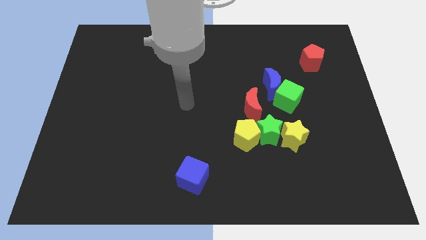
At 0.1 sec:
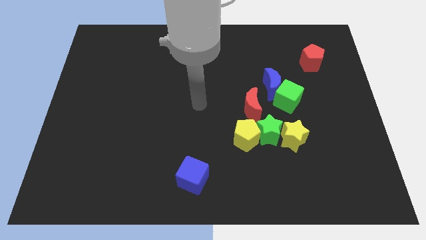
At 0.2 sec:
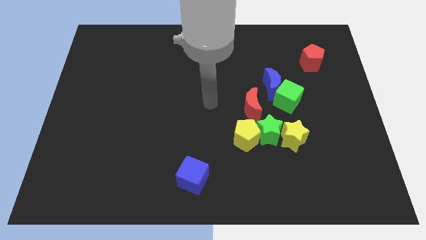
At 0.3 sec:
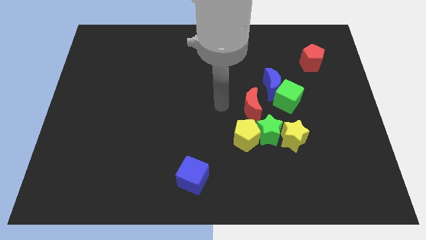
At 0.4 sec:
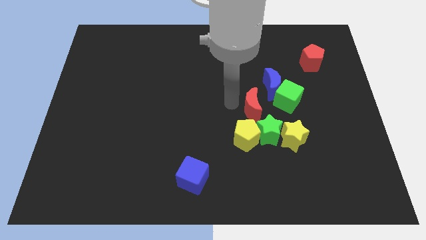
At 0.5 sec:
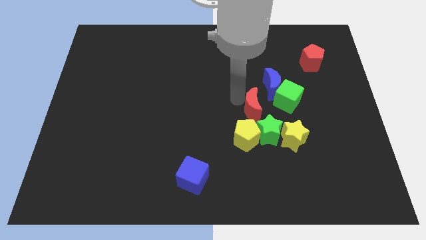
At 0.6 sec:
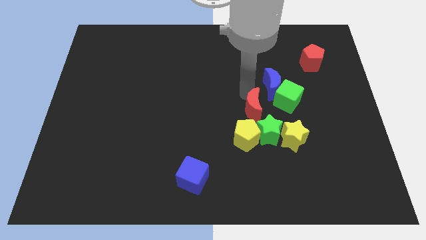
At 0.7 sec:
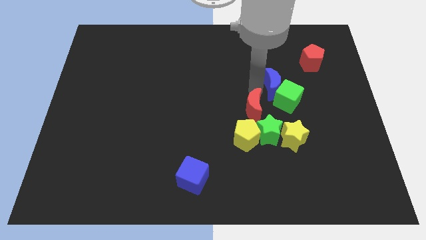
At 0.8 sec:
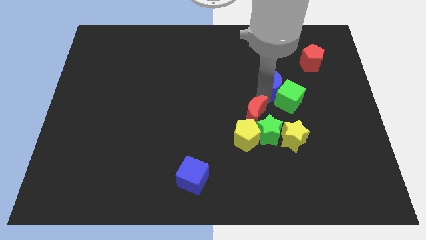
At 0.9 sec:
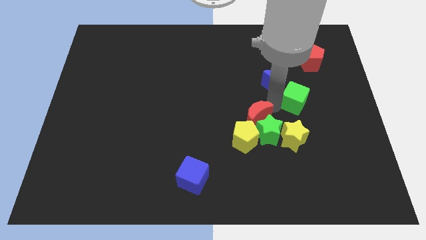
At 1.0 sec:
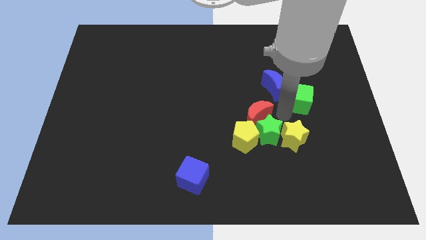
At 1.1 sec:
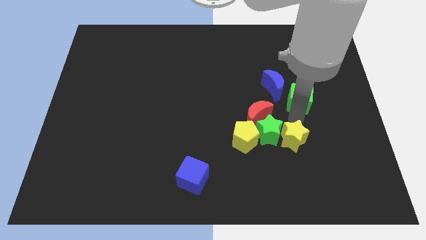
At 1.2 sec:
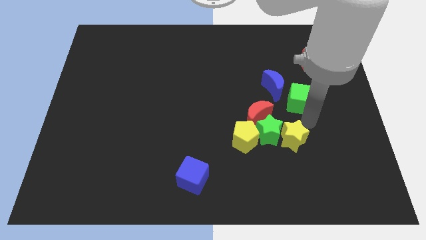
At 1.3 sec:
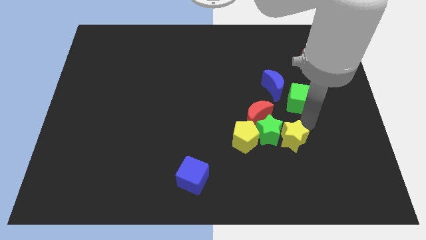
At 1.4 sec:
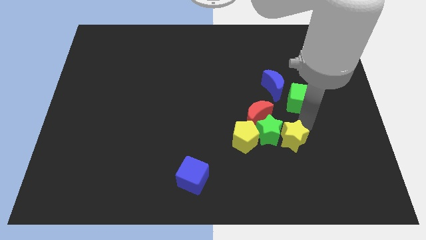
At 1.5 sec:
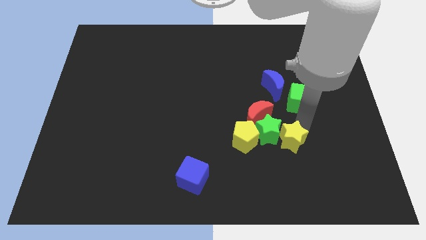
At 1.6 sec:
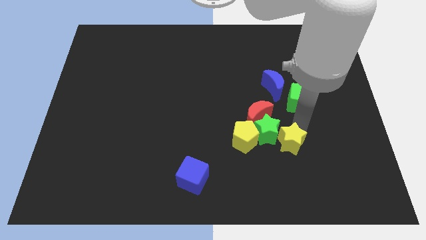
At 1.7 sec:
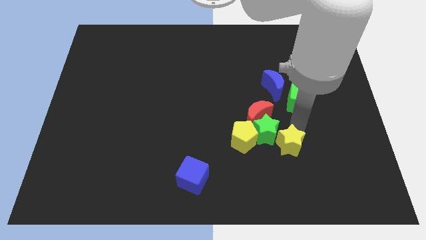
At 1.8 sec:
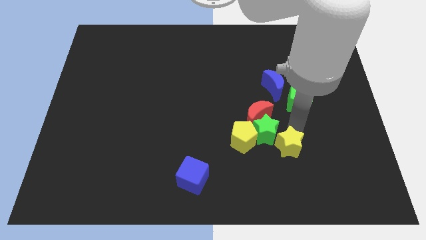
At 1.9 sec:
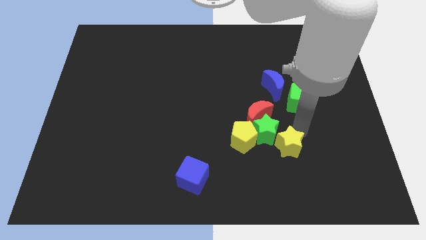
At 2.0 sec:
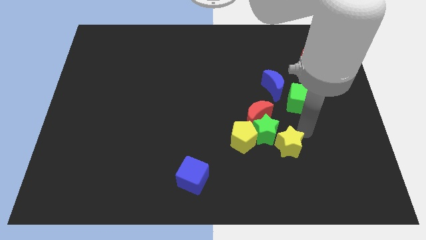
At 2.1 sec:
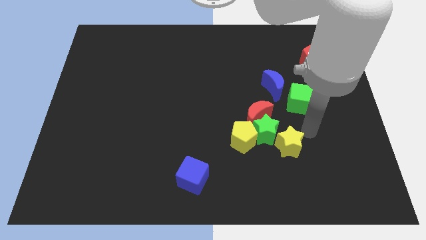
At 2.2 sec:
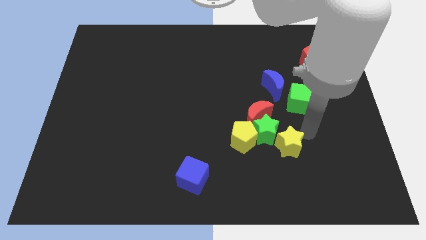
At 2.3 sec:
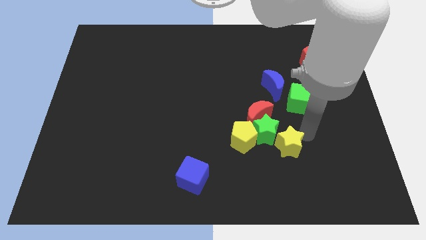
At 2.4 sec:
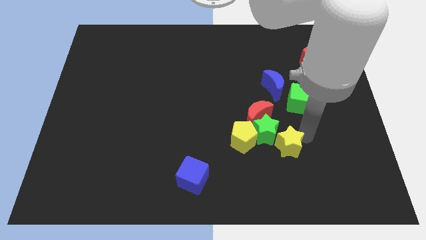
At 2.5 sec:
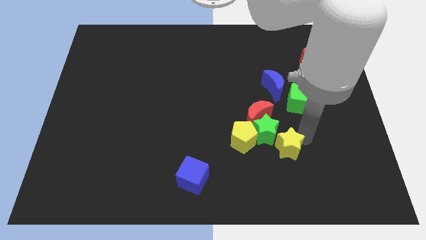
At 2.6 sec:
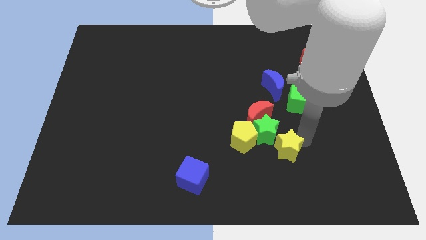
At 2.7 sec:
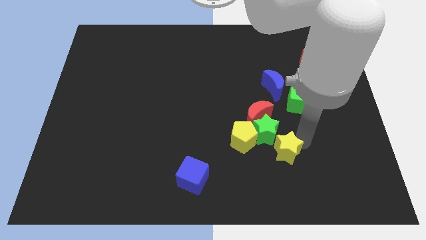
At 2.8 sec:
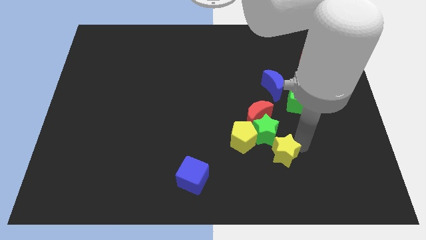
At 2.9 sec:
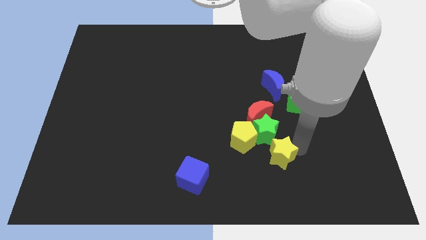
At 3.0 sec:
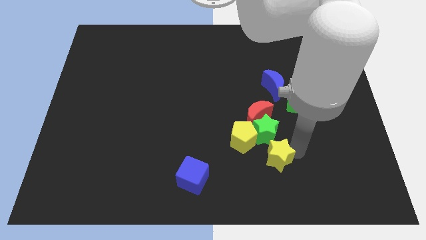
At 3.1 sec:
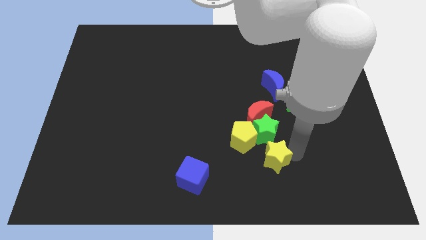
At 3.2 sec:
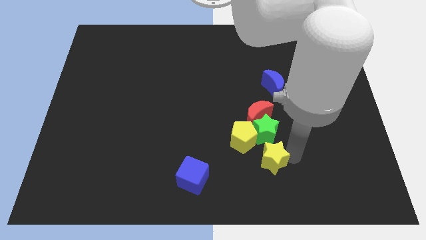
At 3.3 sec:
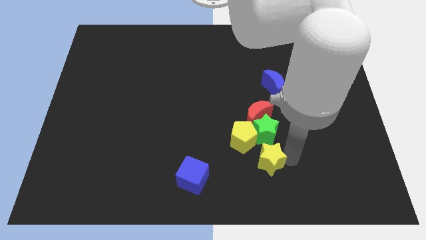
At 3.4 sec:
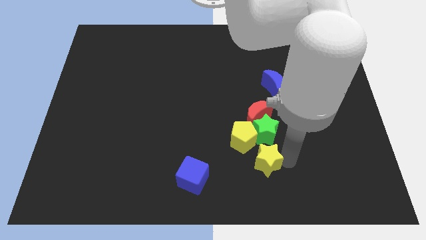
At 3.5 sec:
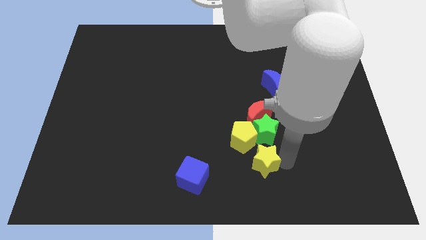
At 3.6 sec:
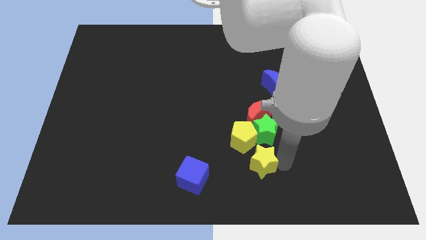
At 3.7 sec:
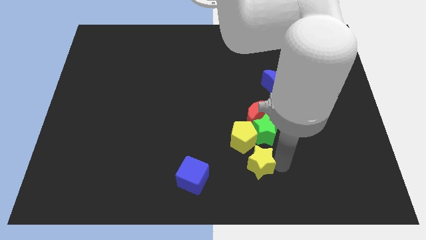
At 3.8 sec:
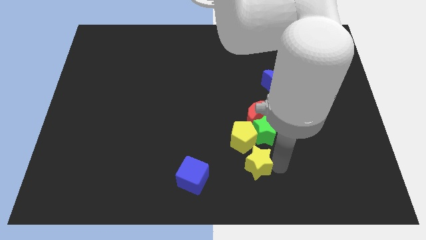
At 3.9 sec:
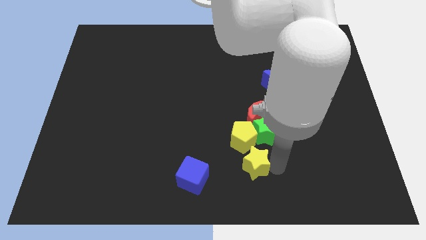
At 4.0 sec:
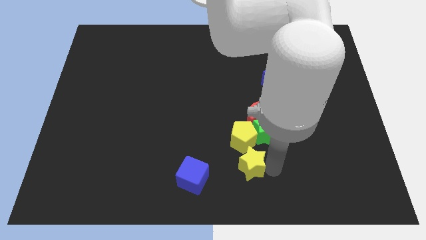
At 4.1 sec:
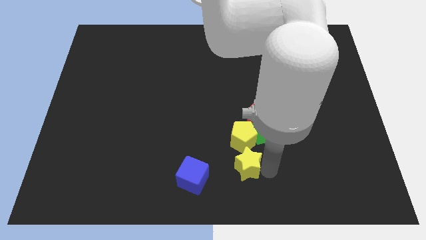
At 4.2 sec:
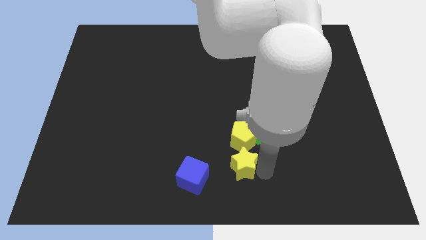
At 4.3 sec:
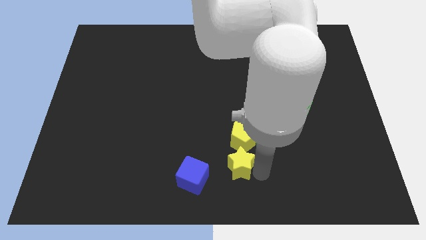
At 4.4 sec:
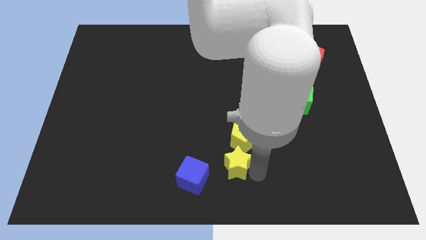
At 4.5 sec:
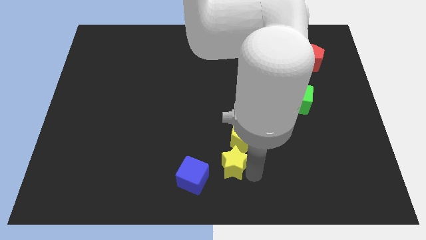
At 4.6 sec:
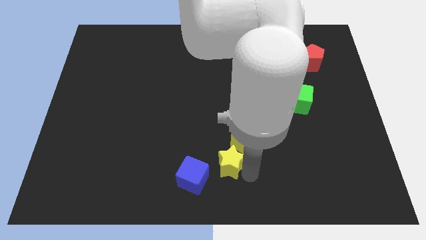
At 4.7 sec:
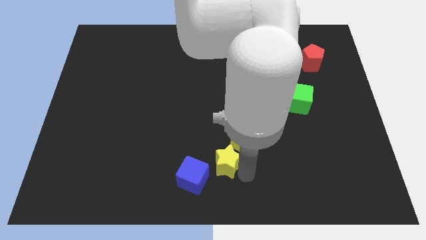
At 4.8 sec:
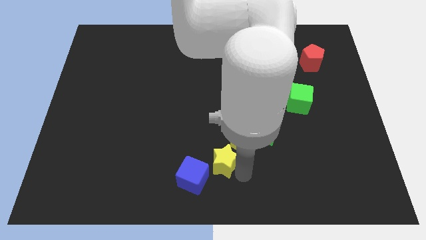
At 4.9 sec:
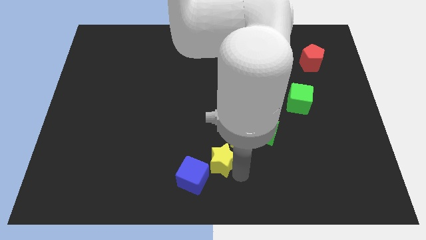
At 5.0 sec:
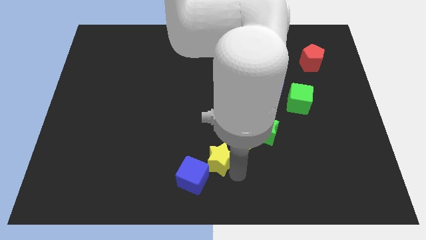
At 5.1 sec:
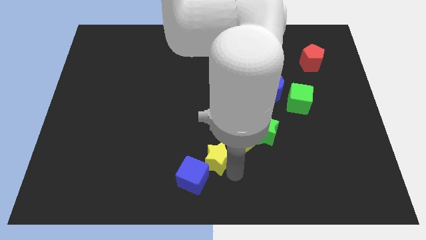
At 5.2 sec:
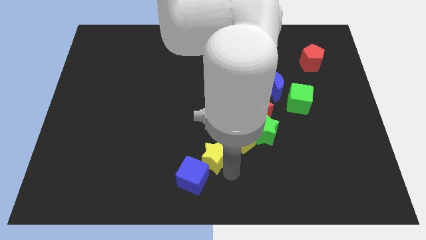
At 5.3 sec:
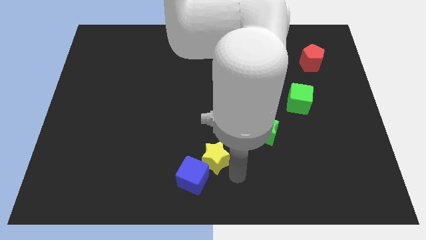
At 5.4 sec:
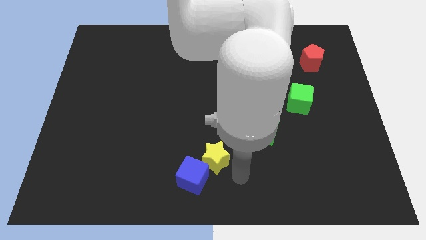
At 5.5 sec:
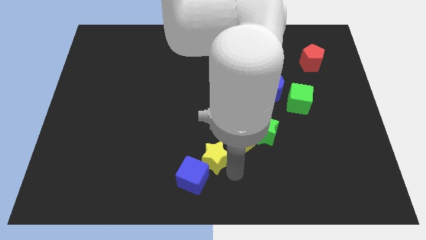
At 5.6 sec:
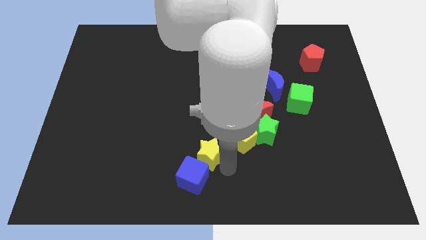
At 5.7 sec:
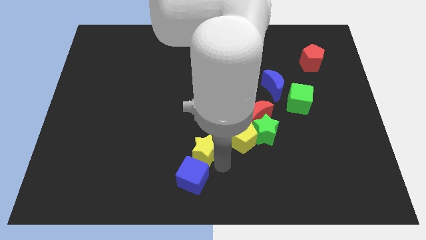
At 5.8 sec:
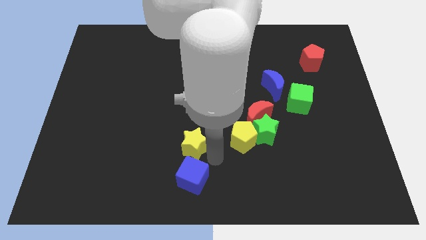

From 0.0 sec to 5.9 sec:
push the yellow star left

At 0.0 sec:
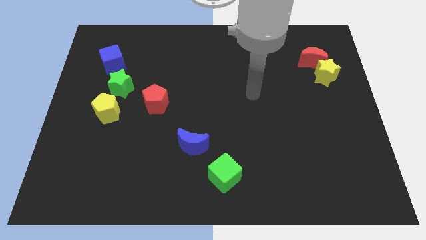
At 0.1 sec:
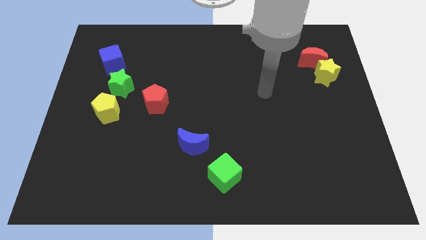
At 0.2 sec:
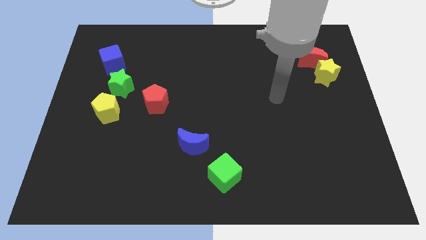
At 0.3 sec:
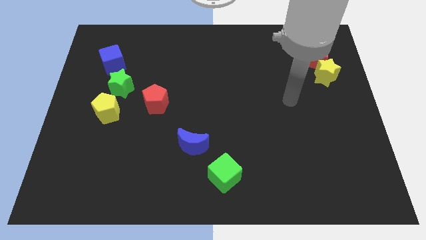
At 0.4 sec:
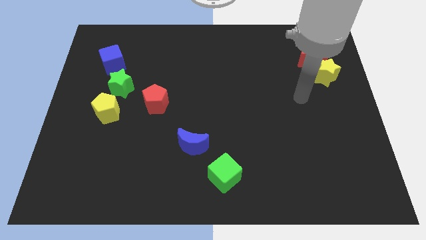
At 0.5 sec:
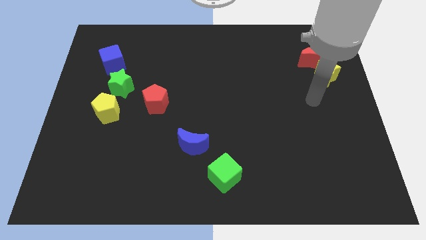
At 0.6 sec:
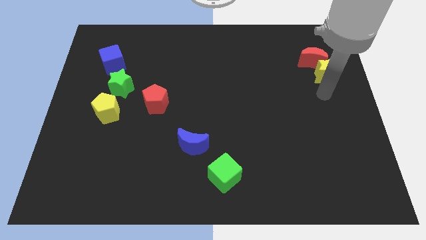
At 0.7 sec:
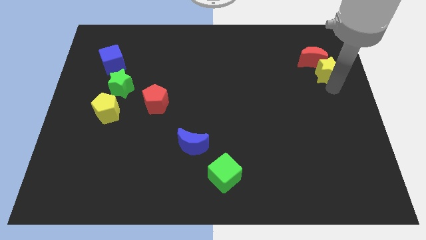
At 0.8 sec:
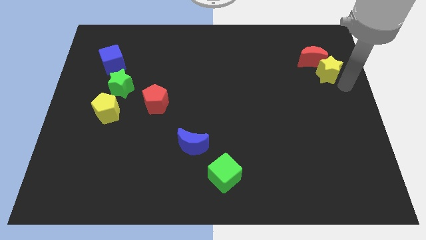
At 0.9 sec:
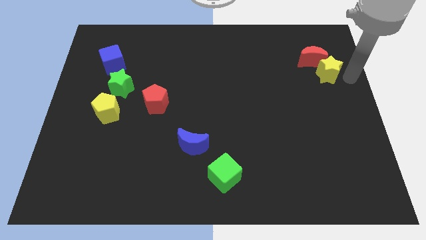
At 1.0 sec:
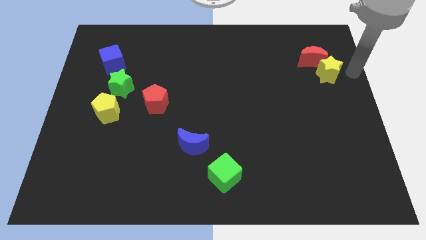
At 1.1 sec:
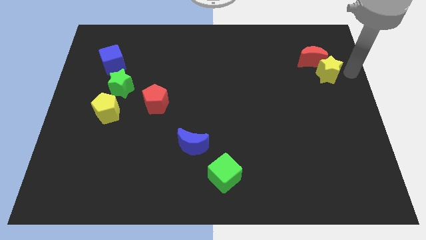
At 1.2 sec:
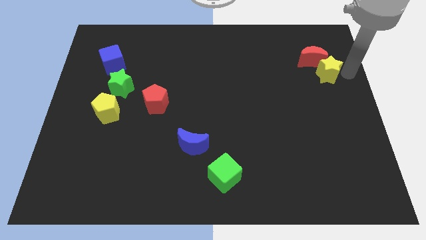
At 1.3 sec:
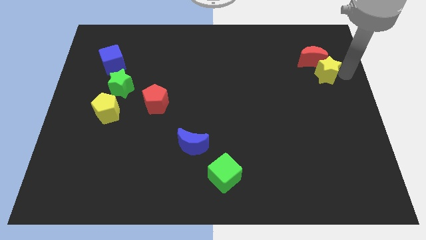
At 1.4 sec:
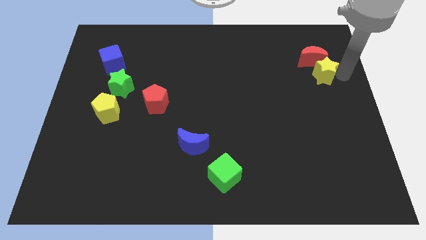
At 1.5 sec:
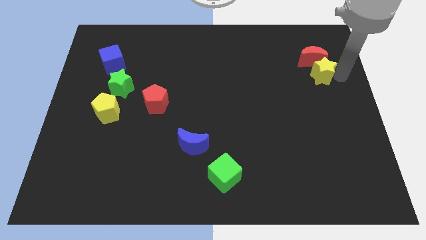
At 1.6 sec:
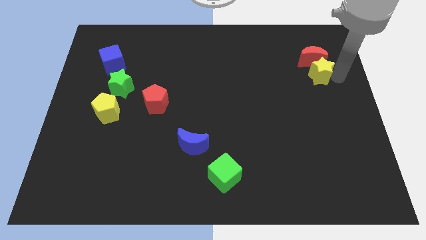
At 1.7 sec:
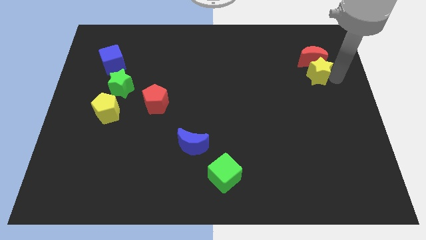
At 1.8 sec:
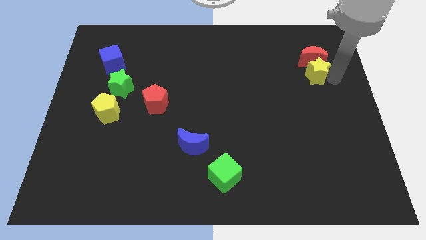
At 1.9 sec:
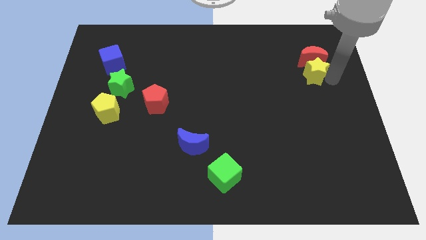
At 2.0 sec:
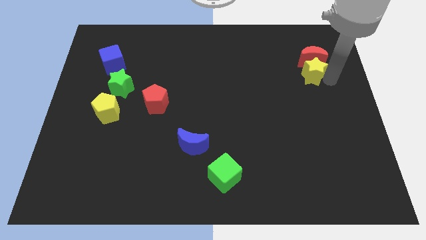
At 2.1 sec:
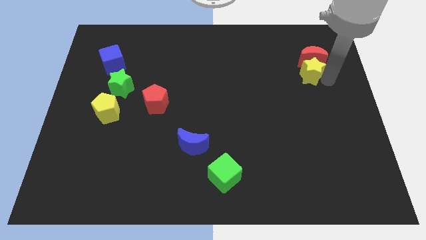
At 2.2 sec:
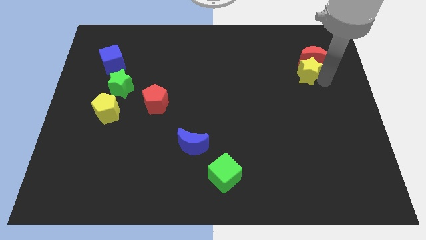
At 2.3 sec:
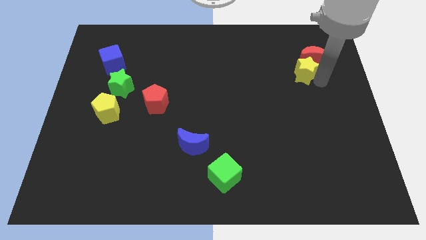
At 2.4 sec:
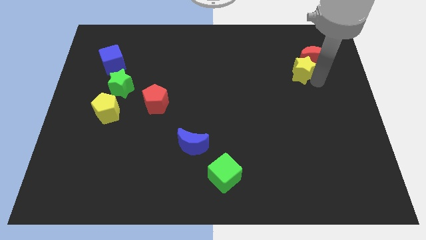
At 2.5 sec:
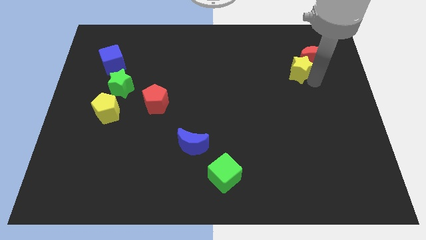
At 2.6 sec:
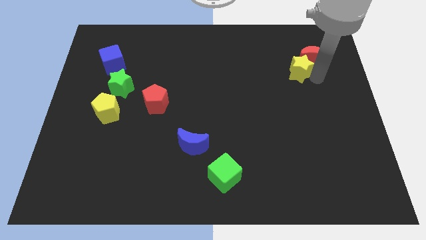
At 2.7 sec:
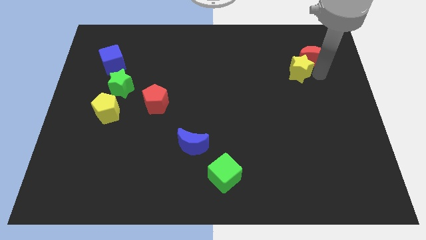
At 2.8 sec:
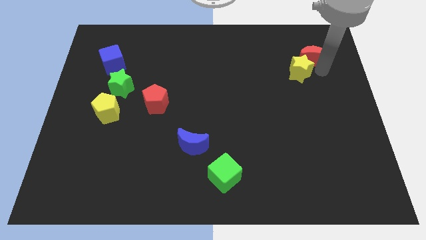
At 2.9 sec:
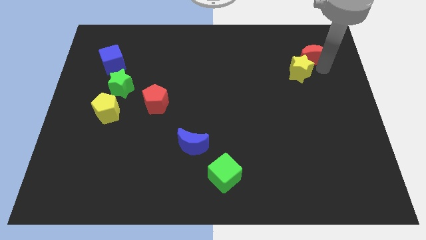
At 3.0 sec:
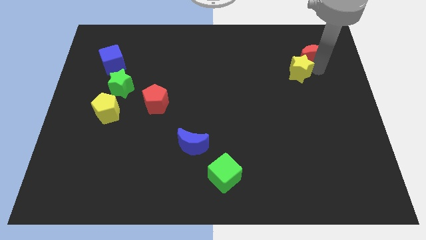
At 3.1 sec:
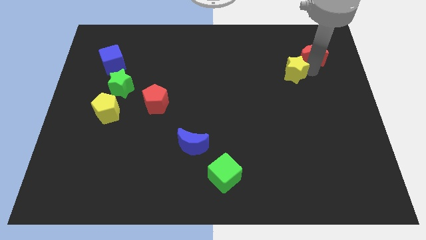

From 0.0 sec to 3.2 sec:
slightly slide the yellow star left
